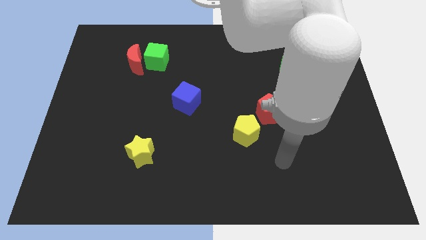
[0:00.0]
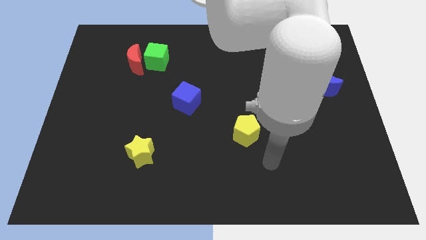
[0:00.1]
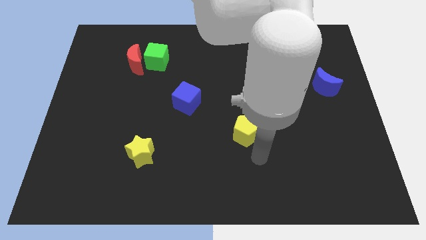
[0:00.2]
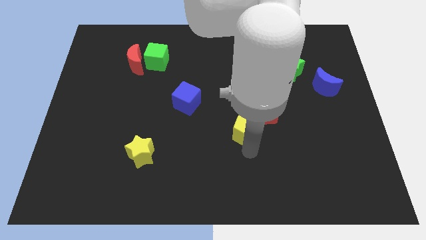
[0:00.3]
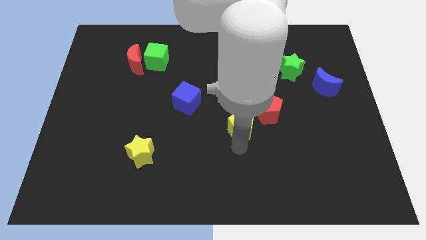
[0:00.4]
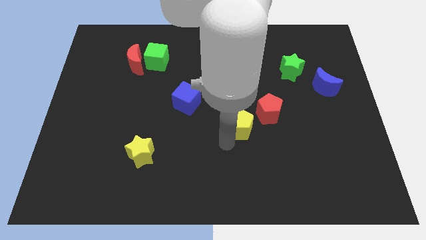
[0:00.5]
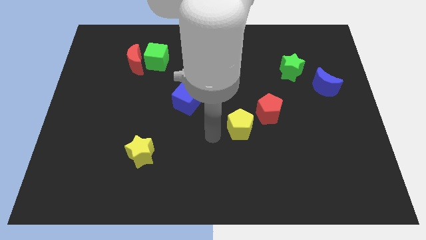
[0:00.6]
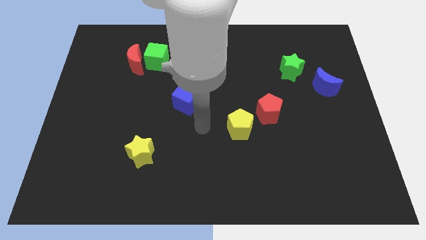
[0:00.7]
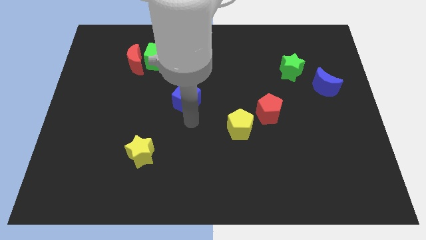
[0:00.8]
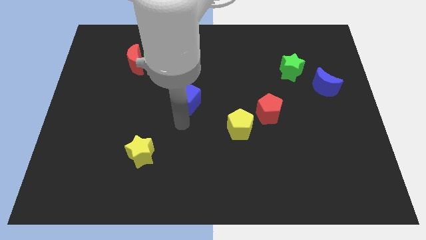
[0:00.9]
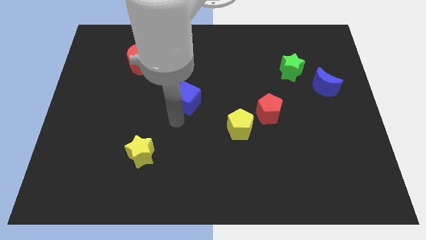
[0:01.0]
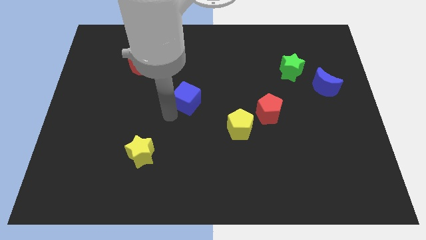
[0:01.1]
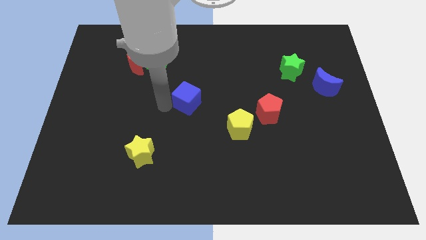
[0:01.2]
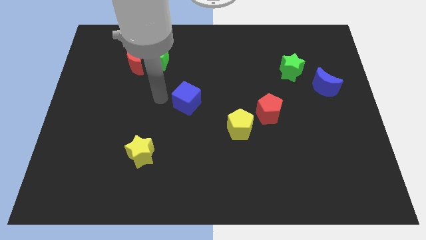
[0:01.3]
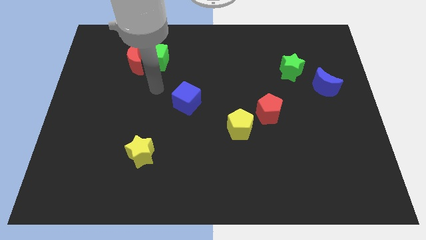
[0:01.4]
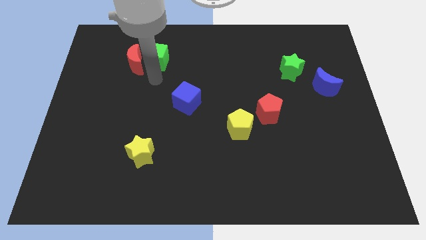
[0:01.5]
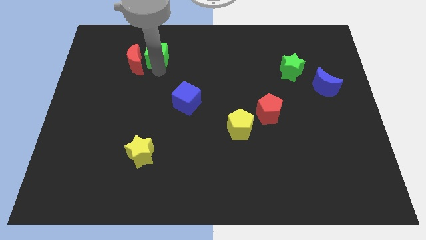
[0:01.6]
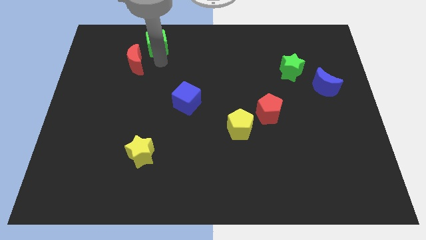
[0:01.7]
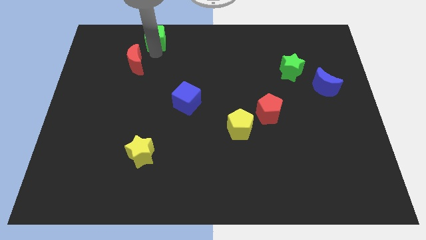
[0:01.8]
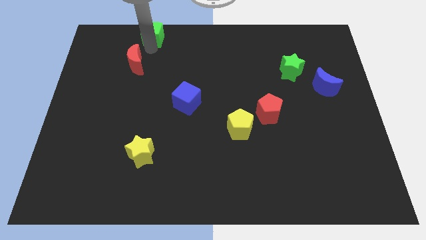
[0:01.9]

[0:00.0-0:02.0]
move the red moon away from the green cube

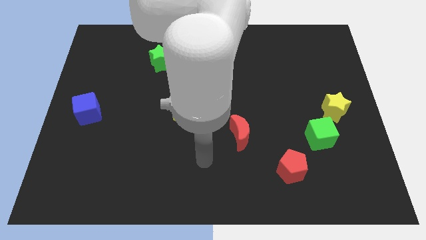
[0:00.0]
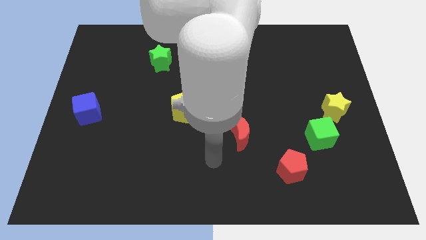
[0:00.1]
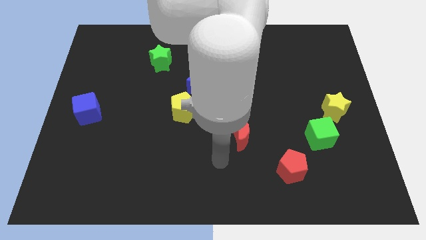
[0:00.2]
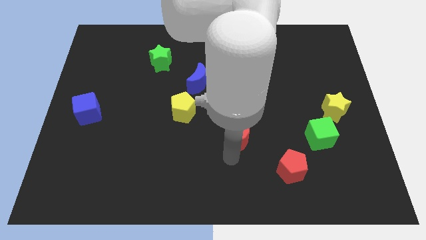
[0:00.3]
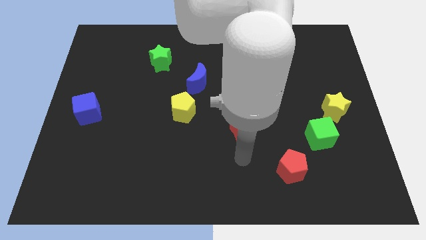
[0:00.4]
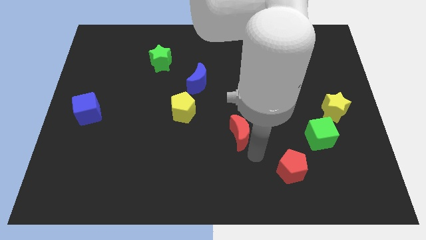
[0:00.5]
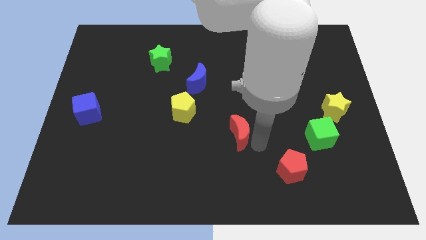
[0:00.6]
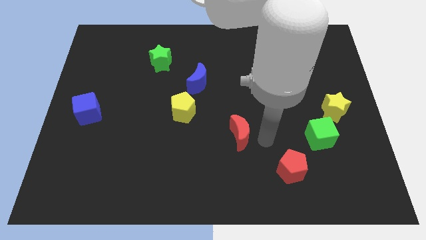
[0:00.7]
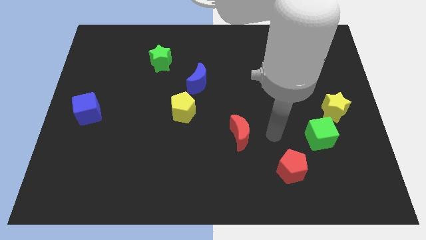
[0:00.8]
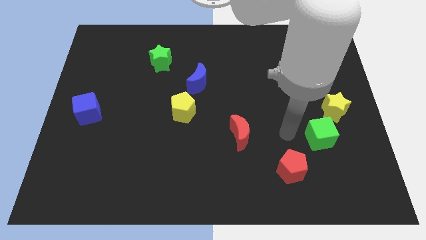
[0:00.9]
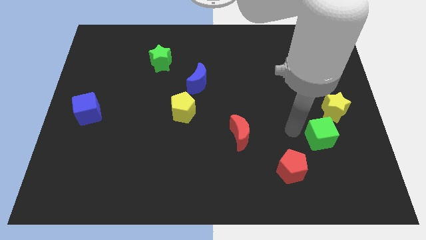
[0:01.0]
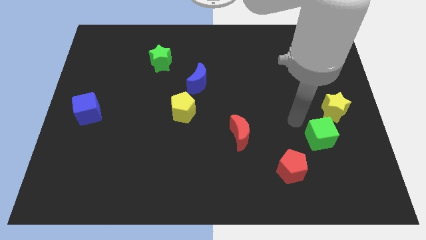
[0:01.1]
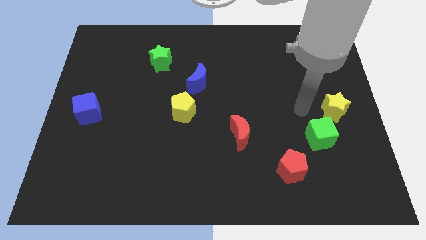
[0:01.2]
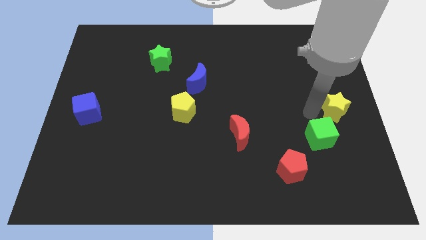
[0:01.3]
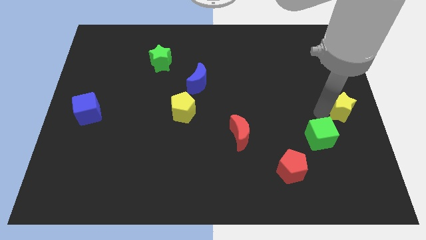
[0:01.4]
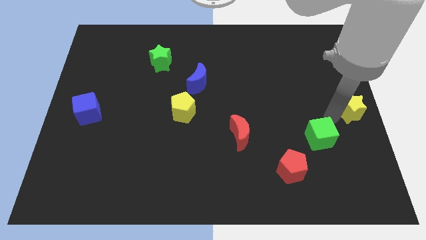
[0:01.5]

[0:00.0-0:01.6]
pull the green cube apart from the yellow star

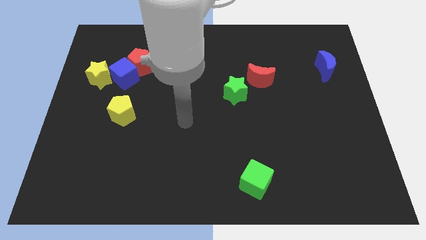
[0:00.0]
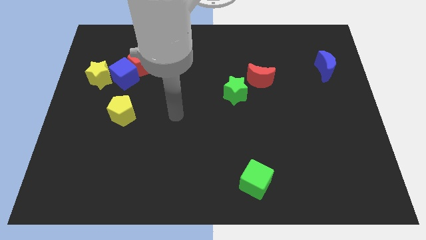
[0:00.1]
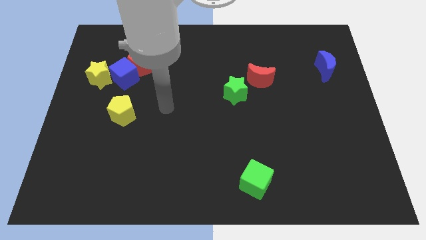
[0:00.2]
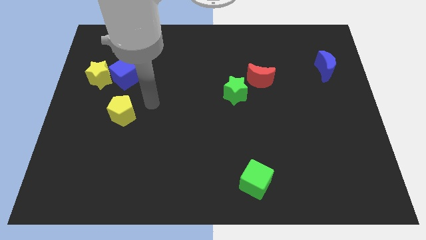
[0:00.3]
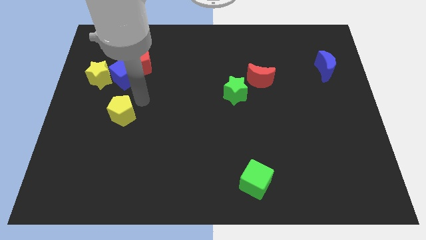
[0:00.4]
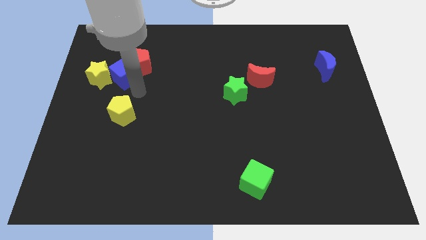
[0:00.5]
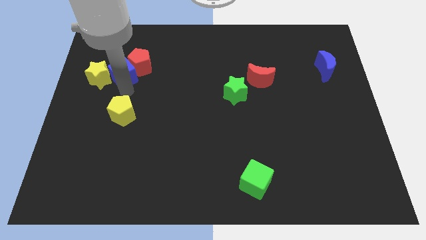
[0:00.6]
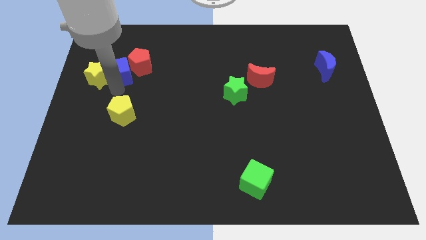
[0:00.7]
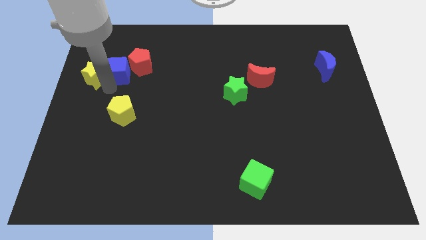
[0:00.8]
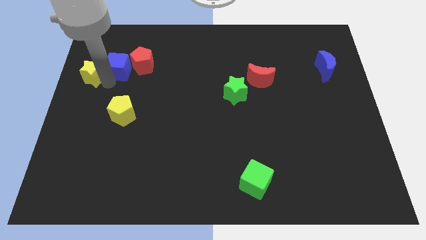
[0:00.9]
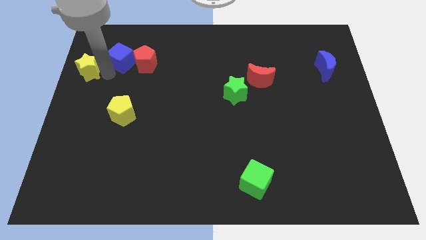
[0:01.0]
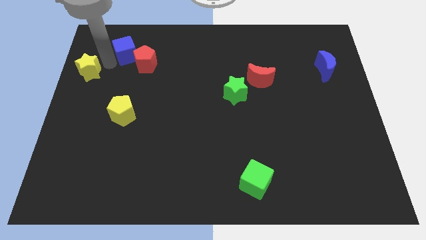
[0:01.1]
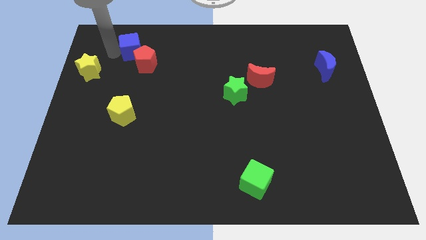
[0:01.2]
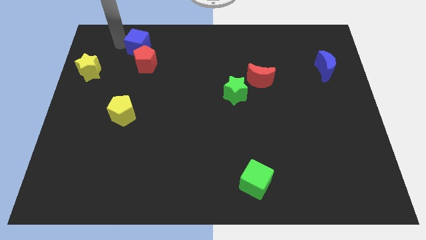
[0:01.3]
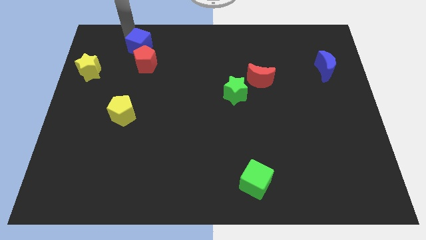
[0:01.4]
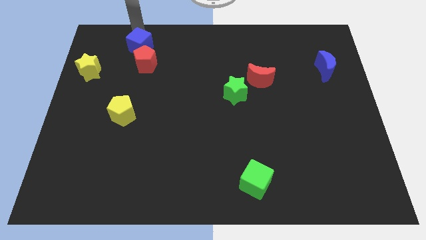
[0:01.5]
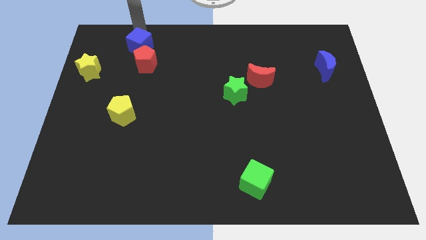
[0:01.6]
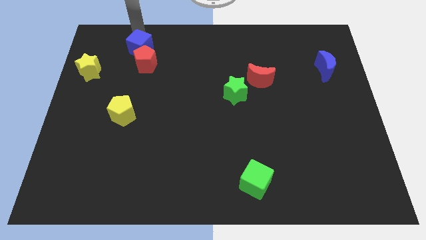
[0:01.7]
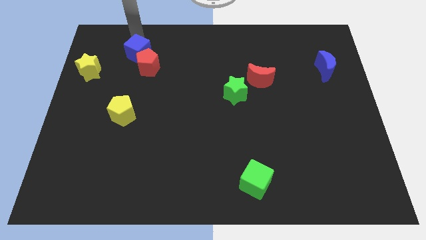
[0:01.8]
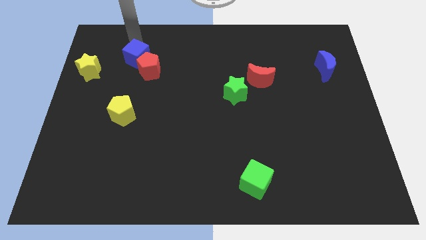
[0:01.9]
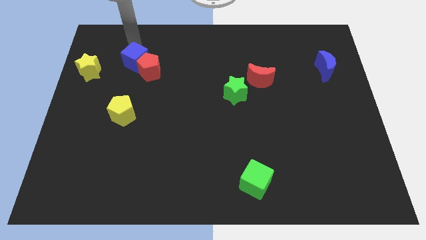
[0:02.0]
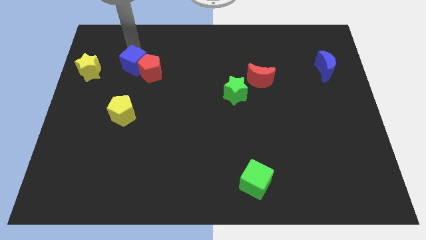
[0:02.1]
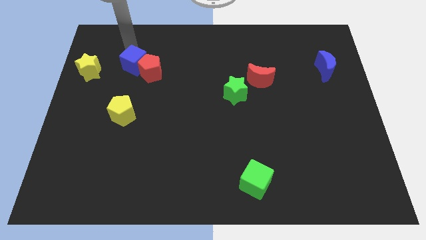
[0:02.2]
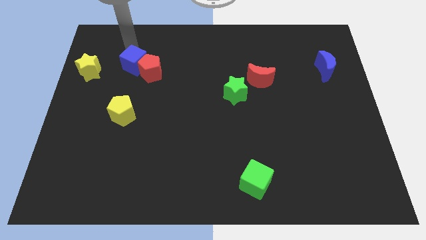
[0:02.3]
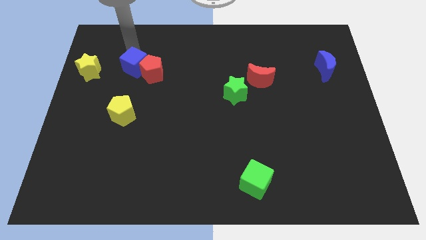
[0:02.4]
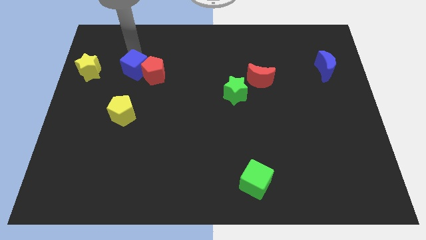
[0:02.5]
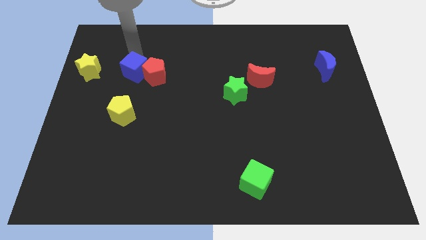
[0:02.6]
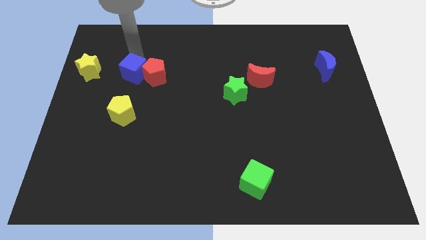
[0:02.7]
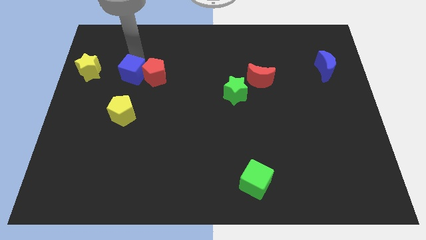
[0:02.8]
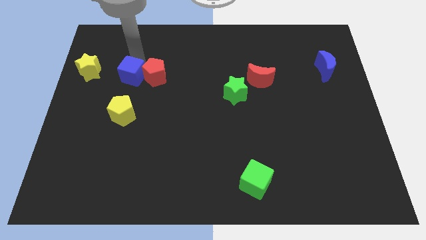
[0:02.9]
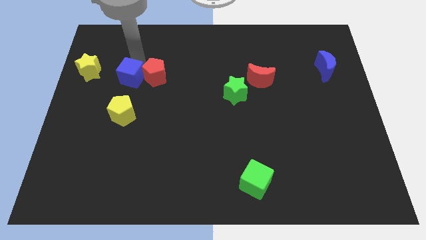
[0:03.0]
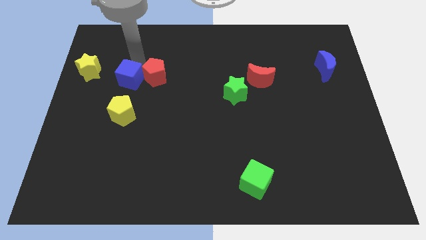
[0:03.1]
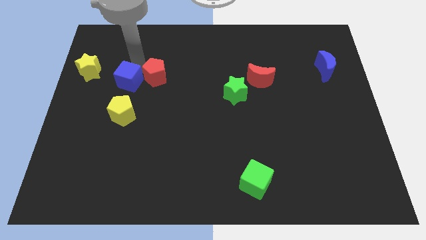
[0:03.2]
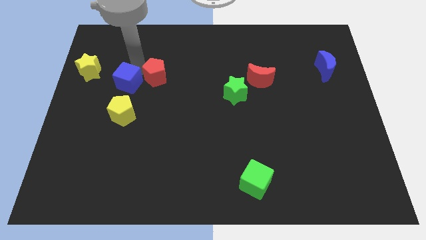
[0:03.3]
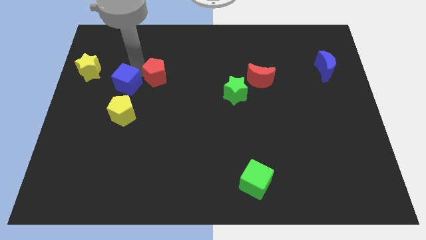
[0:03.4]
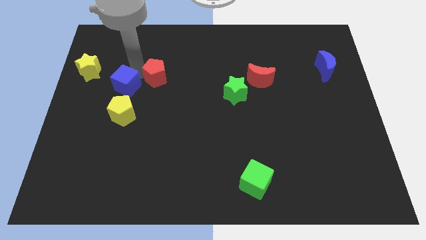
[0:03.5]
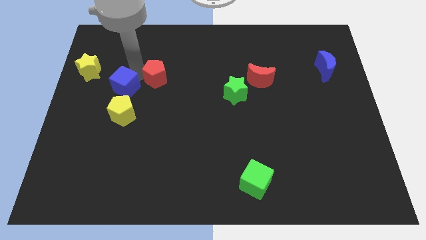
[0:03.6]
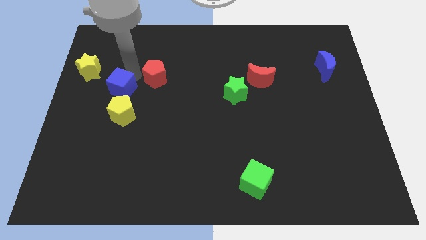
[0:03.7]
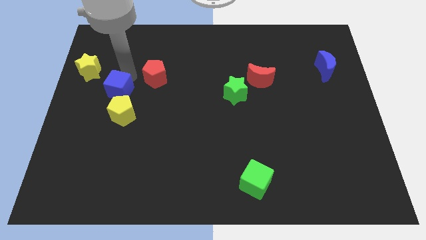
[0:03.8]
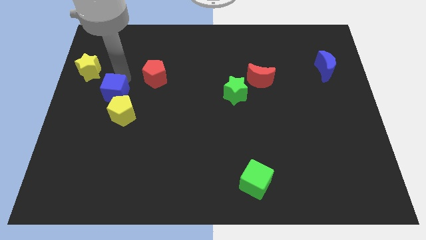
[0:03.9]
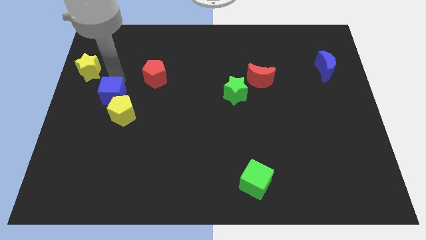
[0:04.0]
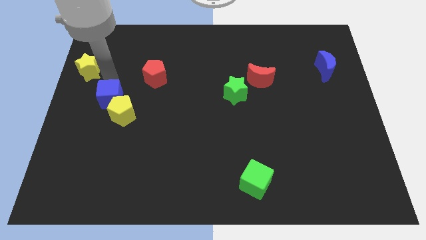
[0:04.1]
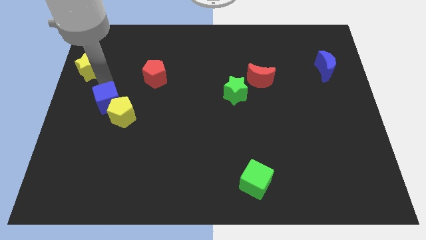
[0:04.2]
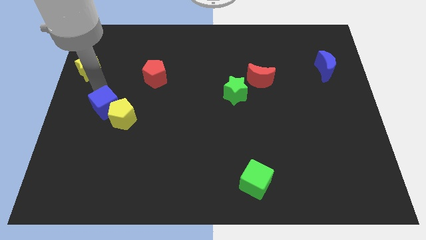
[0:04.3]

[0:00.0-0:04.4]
move the blue cube away from the red pentagon and yellow star

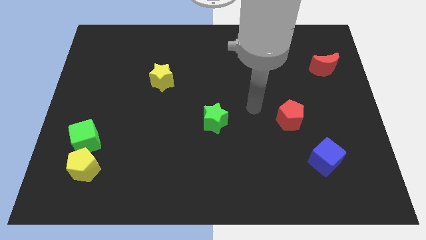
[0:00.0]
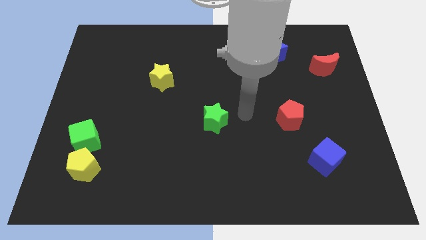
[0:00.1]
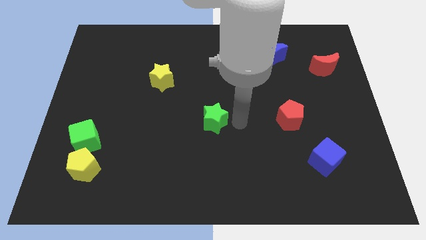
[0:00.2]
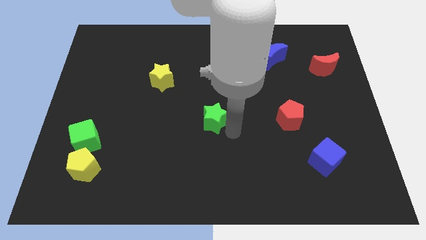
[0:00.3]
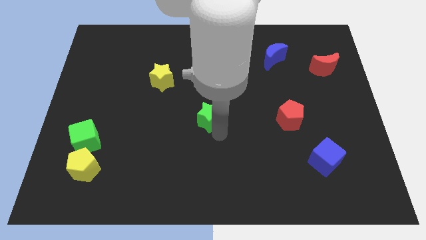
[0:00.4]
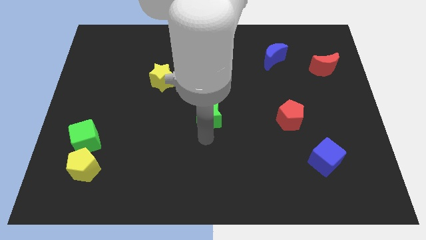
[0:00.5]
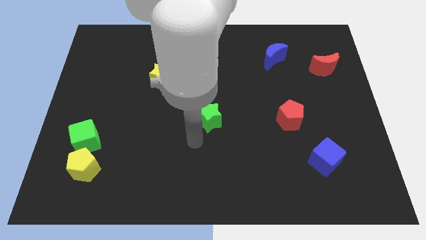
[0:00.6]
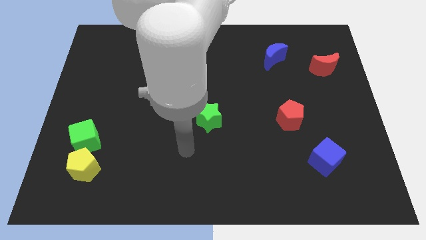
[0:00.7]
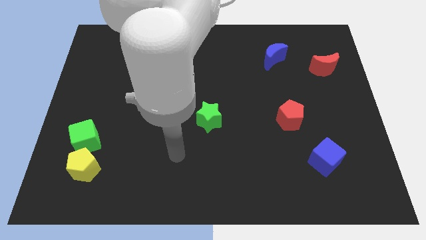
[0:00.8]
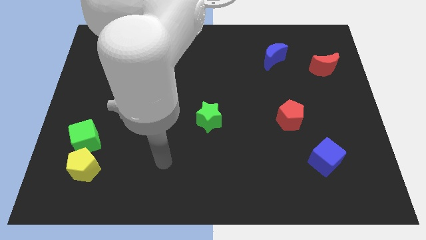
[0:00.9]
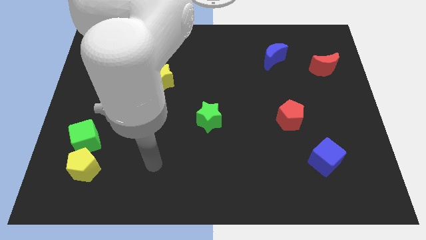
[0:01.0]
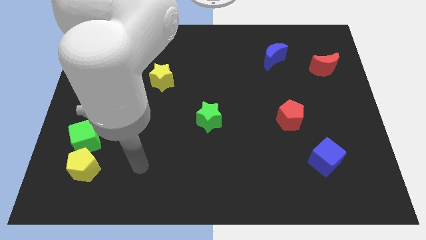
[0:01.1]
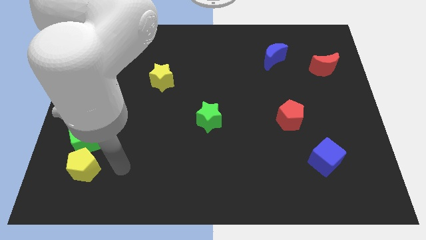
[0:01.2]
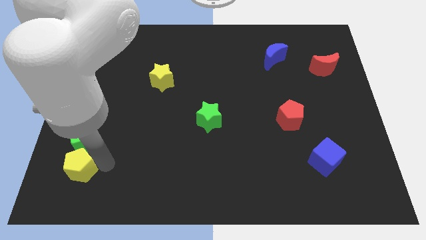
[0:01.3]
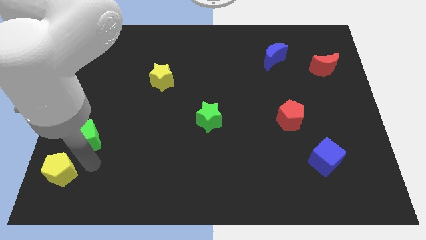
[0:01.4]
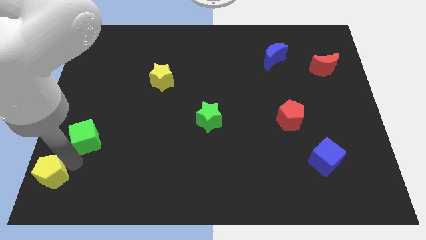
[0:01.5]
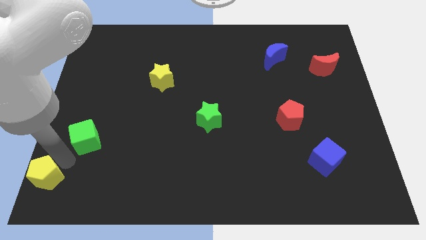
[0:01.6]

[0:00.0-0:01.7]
pull the green cube apart from the yellow pentagon
